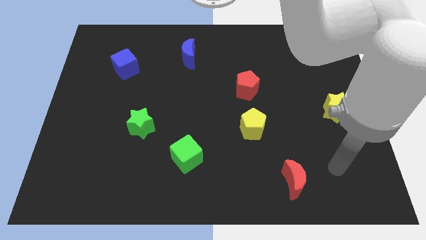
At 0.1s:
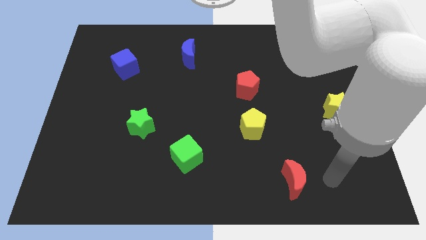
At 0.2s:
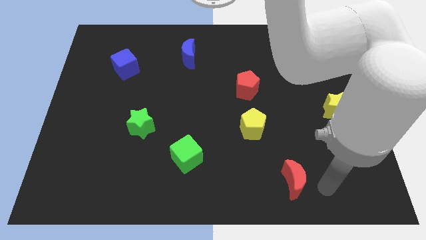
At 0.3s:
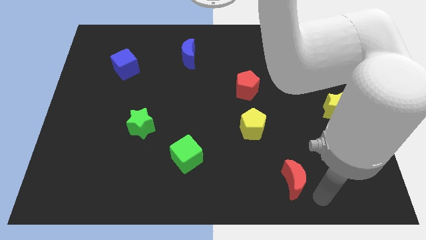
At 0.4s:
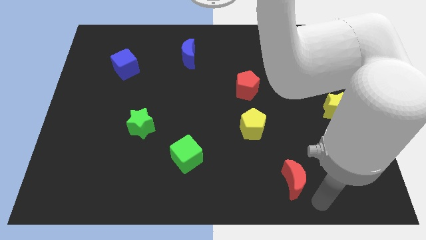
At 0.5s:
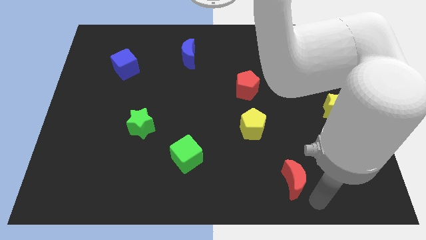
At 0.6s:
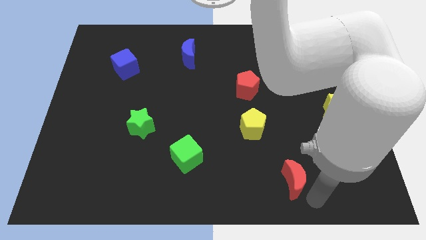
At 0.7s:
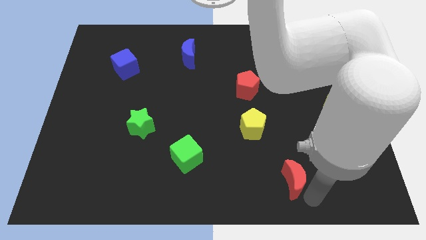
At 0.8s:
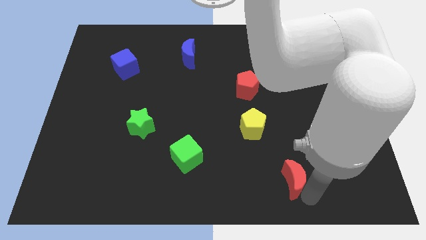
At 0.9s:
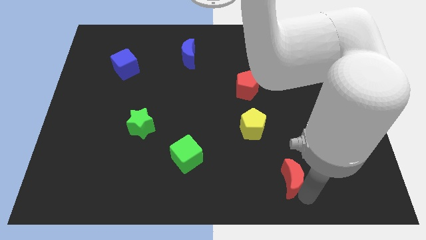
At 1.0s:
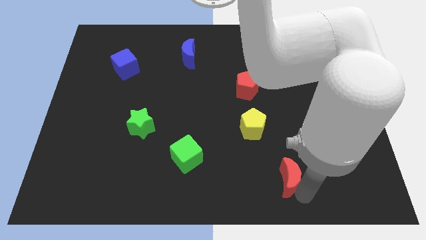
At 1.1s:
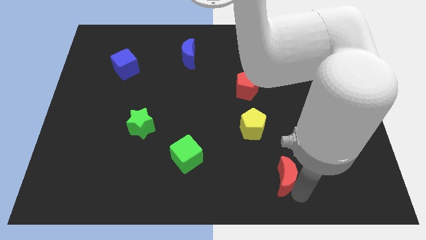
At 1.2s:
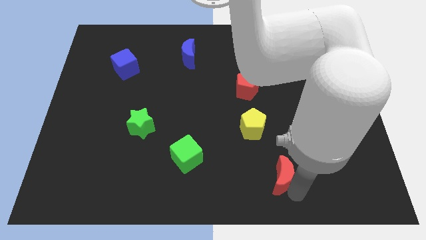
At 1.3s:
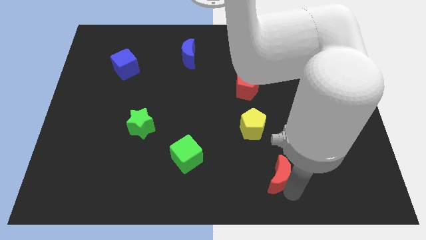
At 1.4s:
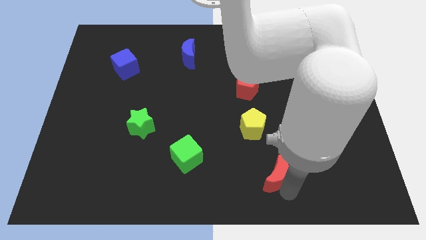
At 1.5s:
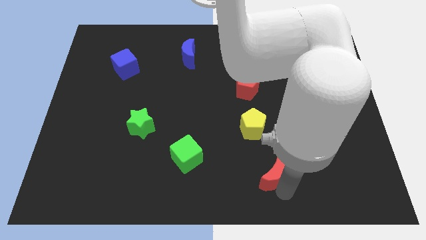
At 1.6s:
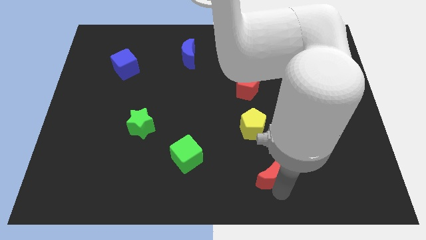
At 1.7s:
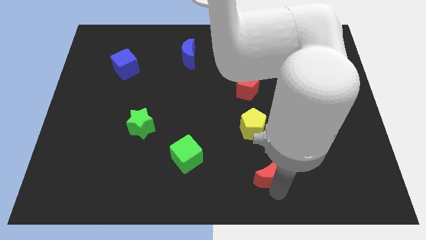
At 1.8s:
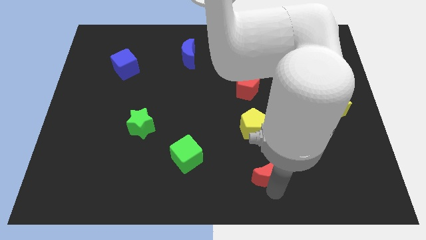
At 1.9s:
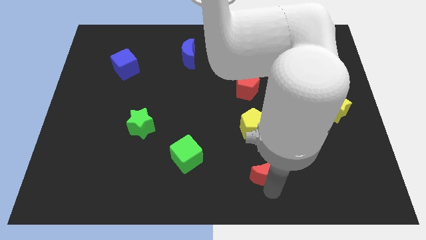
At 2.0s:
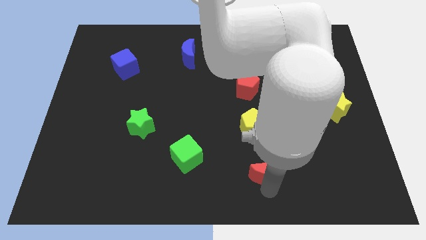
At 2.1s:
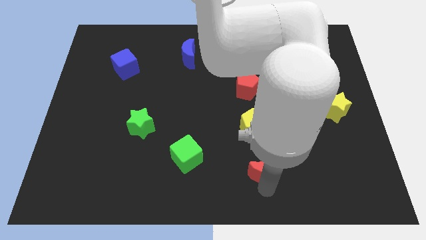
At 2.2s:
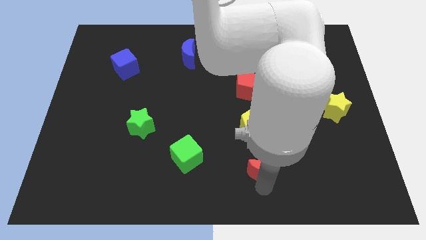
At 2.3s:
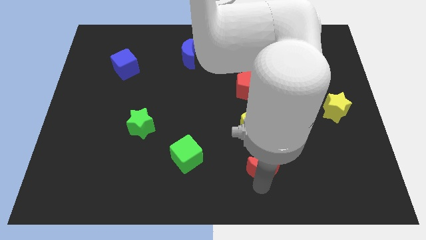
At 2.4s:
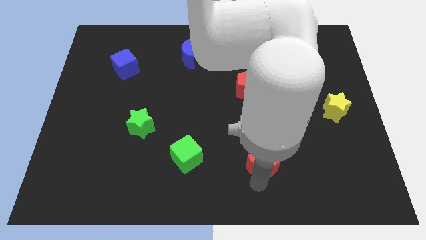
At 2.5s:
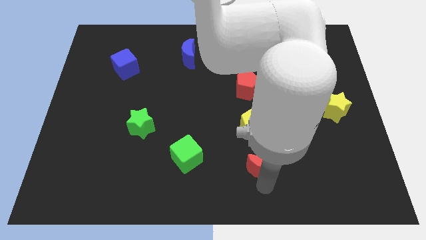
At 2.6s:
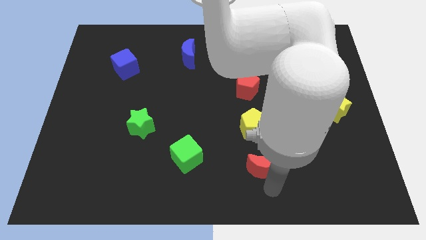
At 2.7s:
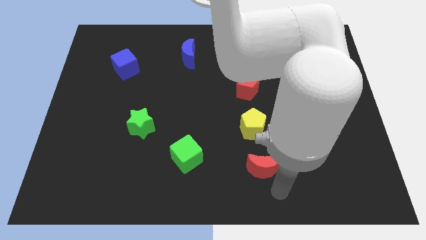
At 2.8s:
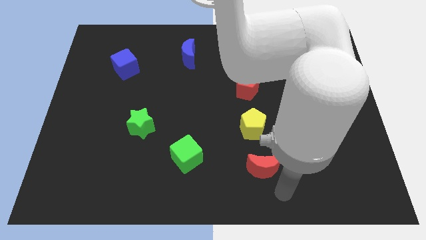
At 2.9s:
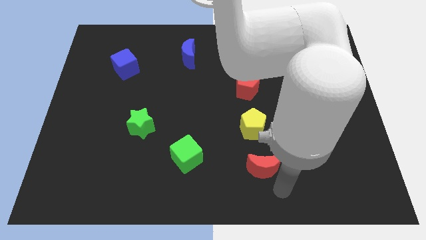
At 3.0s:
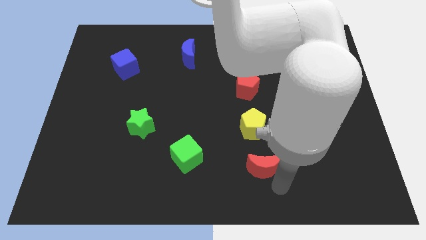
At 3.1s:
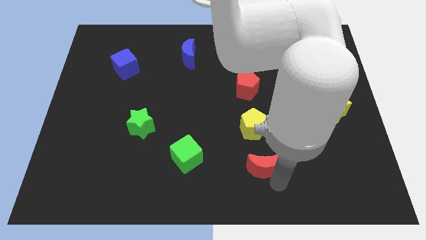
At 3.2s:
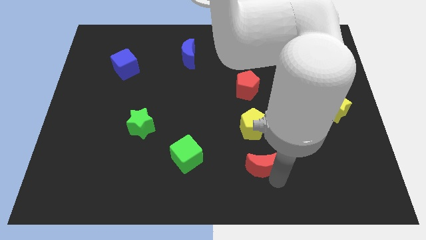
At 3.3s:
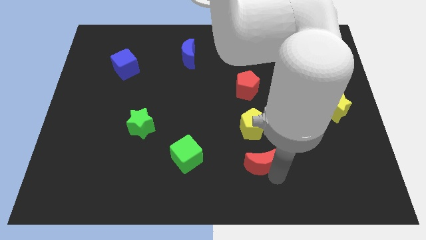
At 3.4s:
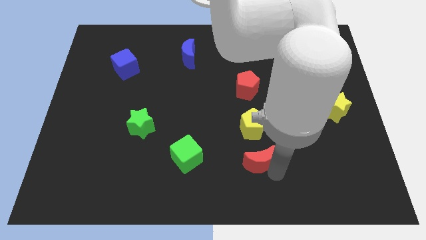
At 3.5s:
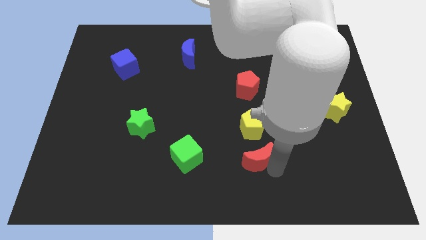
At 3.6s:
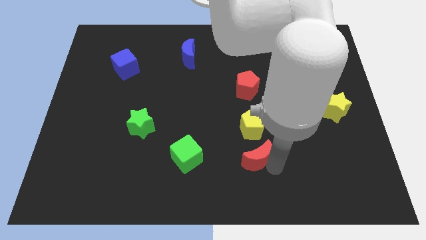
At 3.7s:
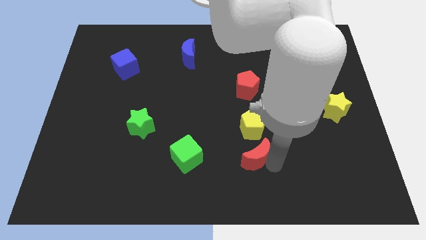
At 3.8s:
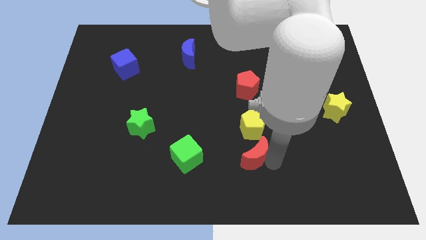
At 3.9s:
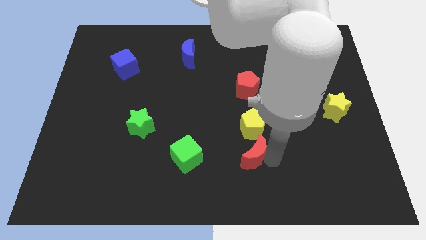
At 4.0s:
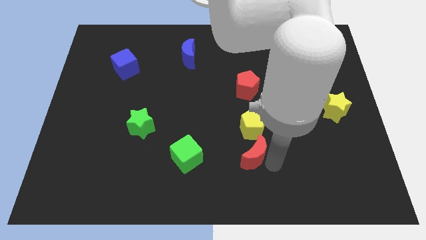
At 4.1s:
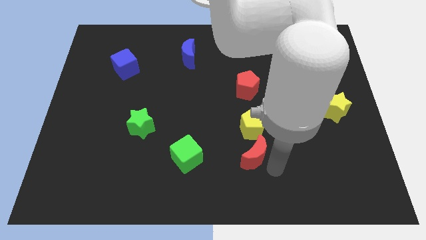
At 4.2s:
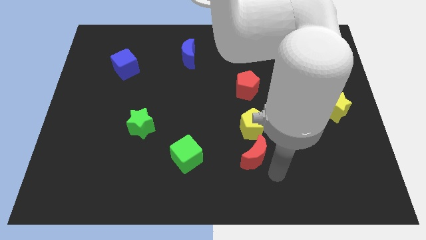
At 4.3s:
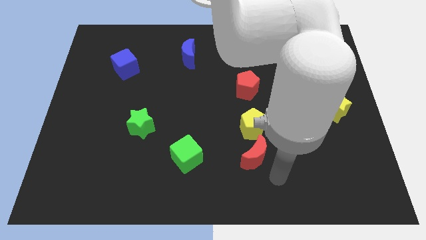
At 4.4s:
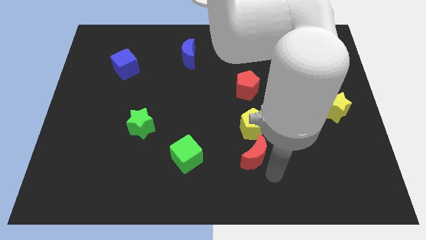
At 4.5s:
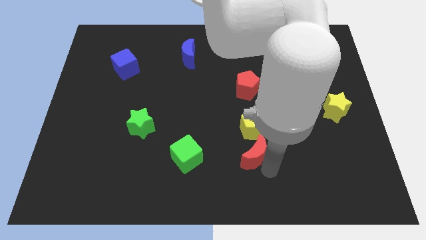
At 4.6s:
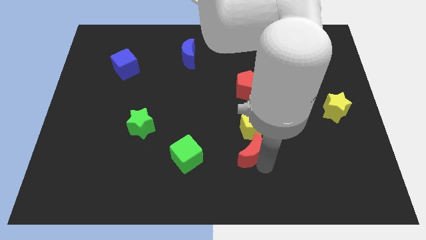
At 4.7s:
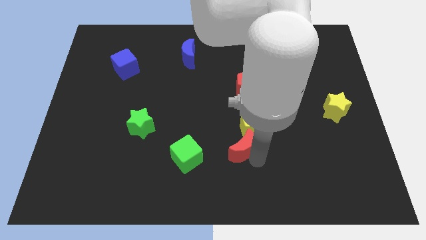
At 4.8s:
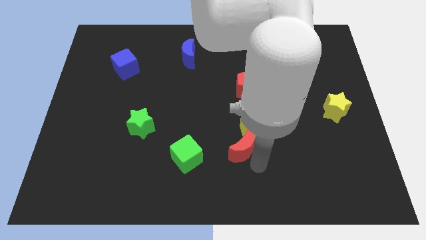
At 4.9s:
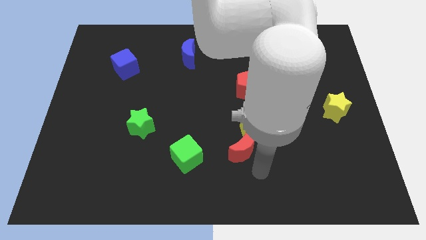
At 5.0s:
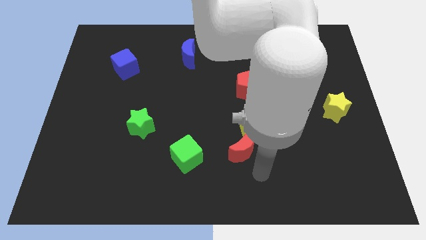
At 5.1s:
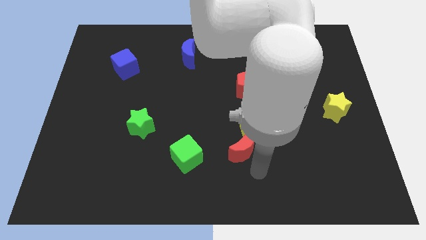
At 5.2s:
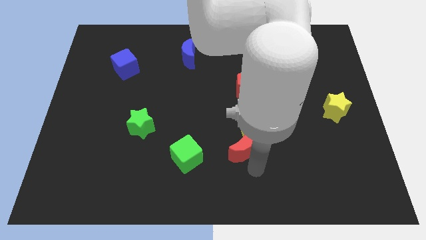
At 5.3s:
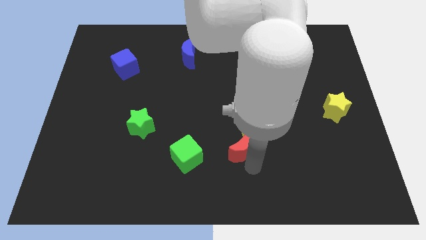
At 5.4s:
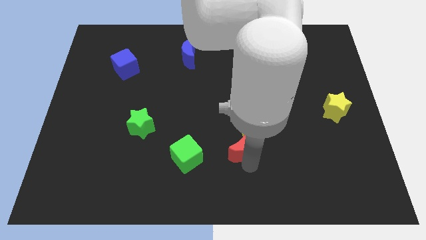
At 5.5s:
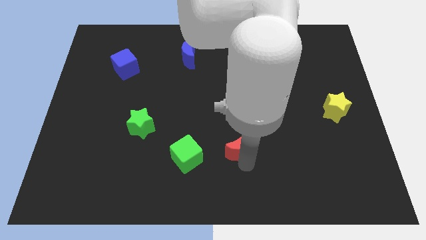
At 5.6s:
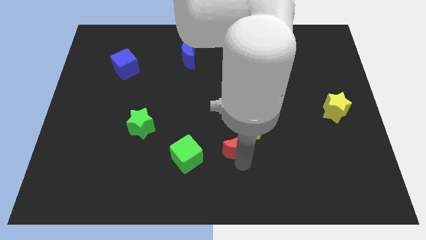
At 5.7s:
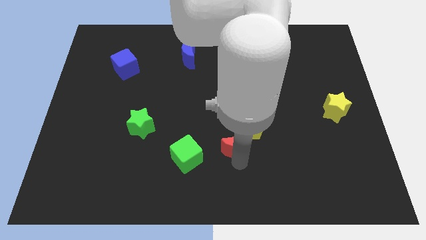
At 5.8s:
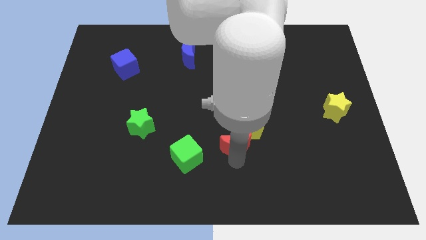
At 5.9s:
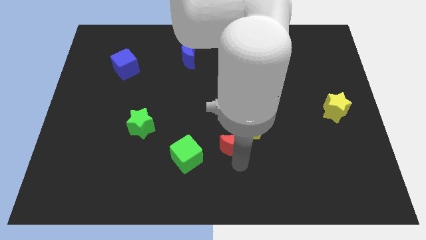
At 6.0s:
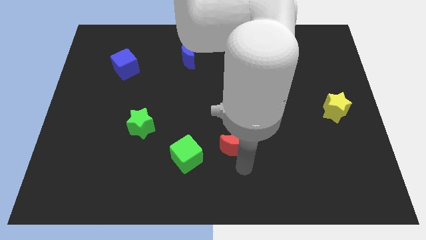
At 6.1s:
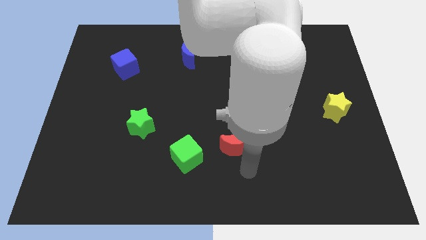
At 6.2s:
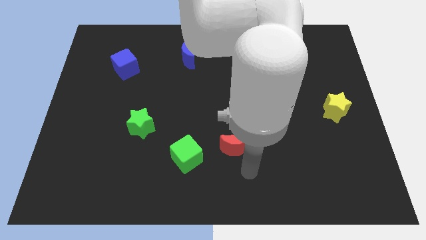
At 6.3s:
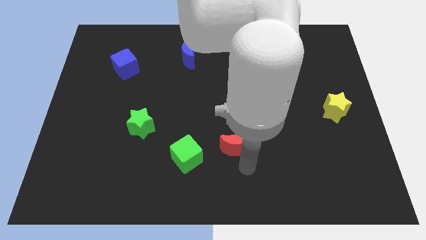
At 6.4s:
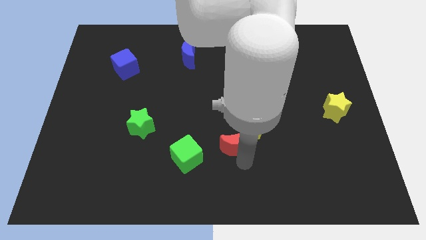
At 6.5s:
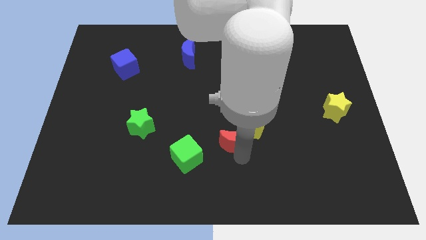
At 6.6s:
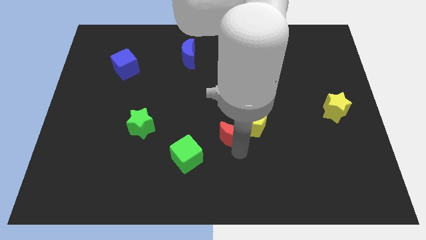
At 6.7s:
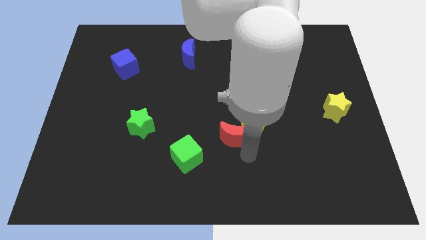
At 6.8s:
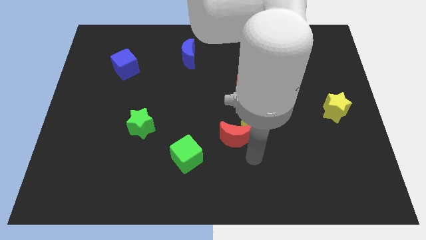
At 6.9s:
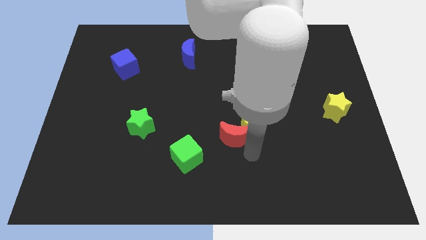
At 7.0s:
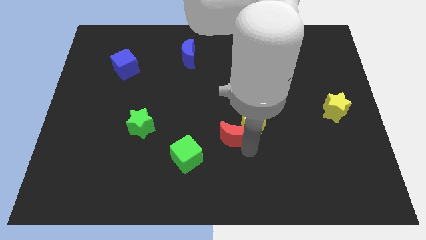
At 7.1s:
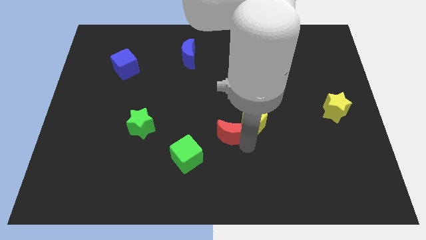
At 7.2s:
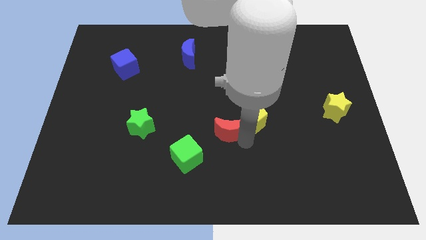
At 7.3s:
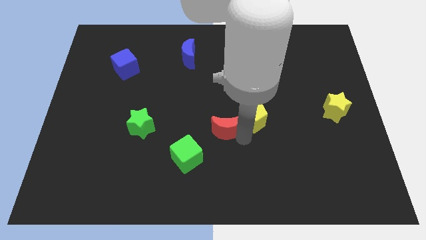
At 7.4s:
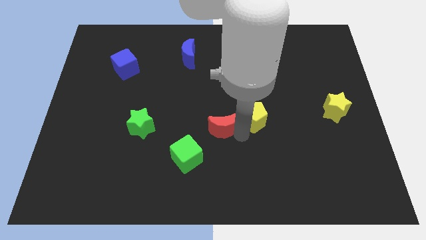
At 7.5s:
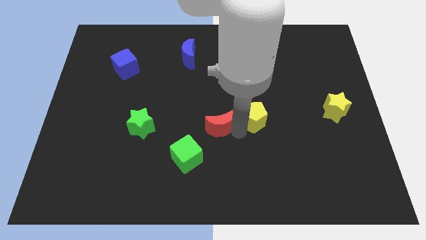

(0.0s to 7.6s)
move the red moon upwards and left diagonally

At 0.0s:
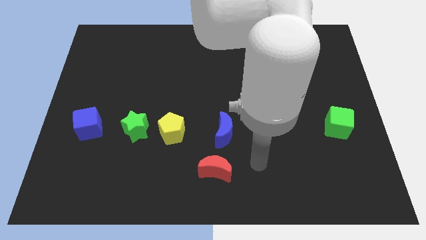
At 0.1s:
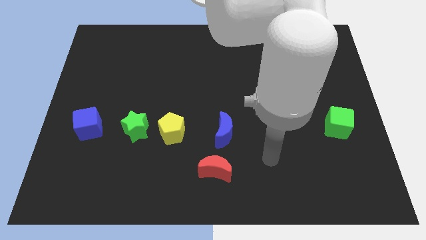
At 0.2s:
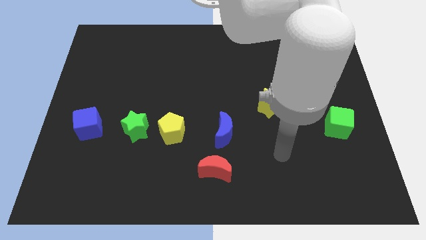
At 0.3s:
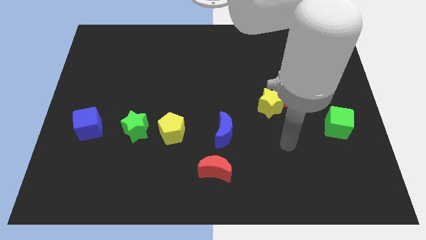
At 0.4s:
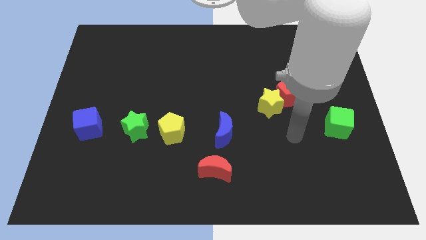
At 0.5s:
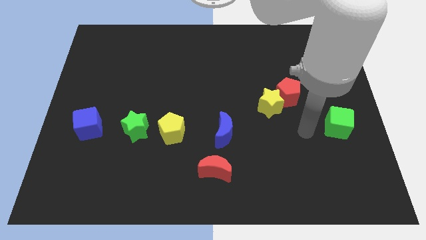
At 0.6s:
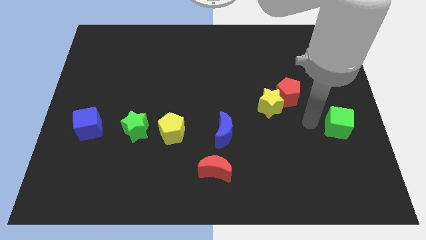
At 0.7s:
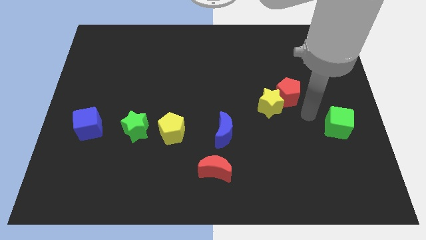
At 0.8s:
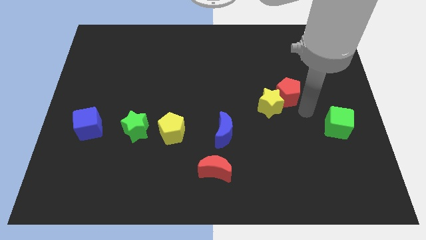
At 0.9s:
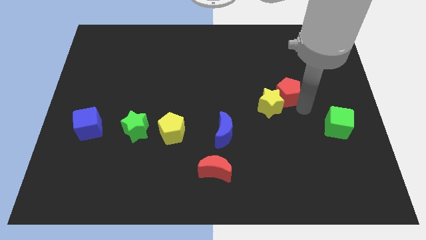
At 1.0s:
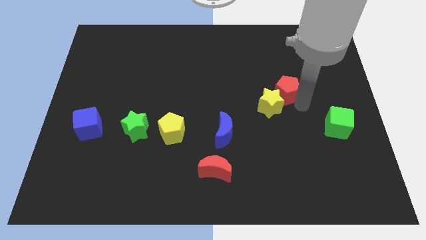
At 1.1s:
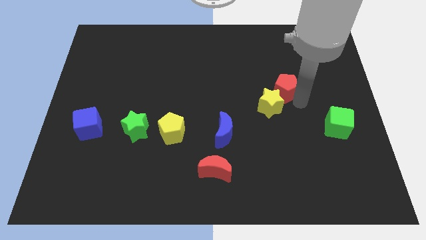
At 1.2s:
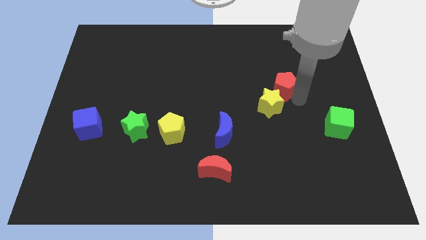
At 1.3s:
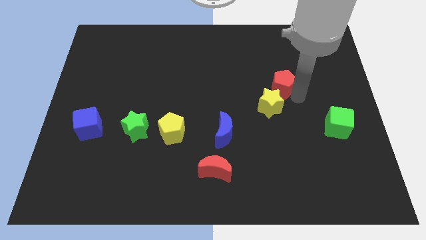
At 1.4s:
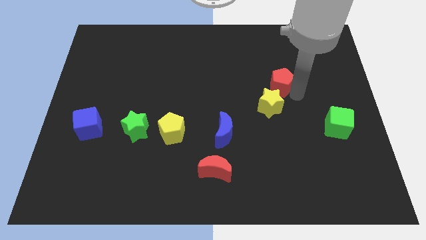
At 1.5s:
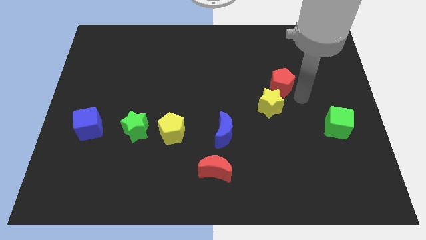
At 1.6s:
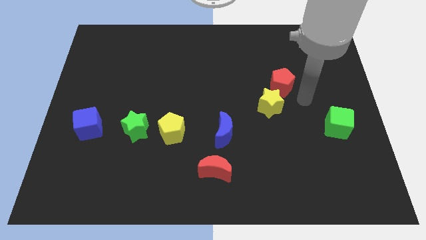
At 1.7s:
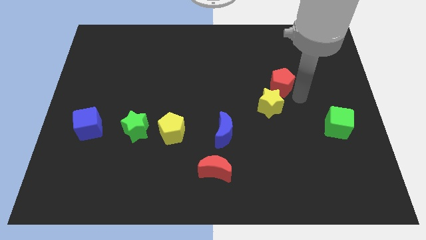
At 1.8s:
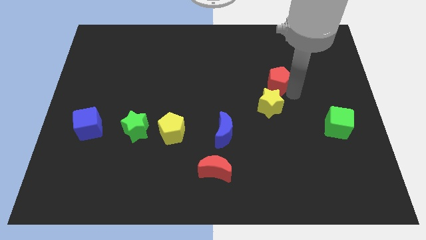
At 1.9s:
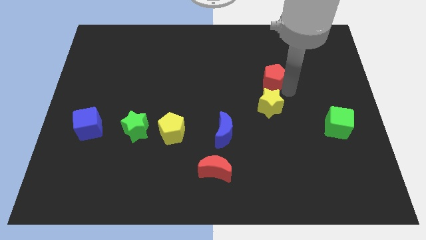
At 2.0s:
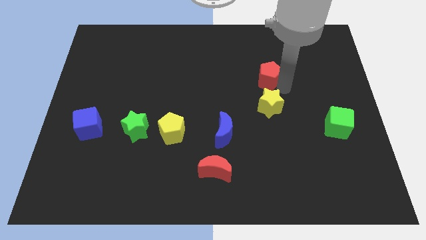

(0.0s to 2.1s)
slightly move the red pentagon diagonally upwards and to the left
